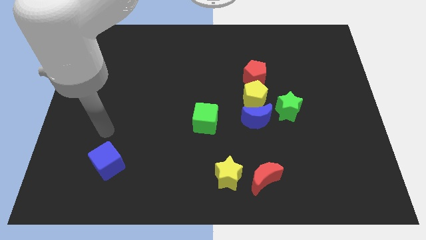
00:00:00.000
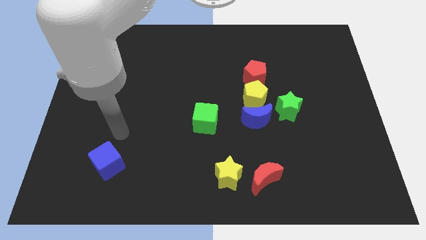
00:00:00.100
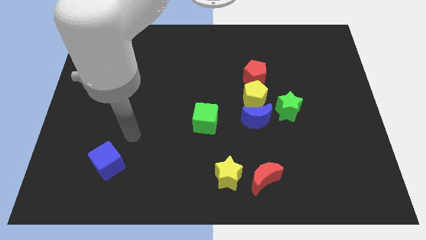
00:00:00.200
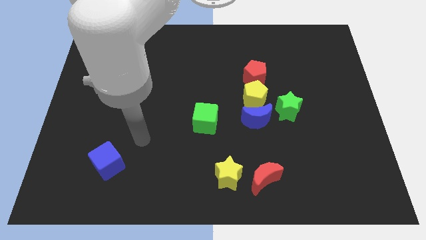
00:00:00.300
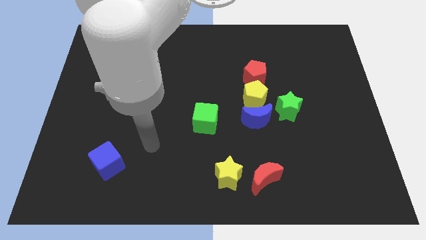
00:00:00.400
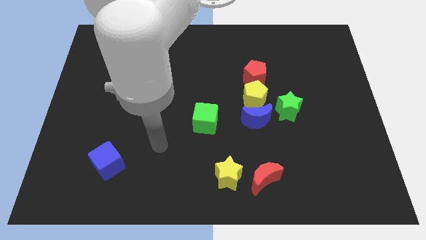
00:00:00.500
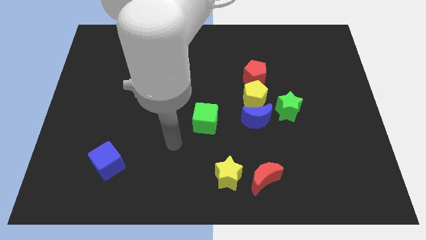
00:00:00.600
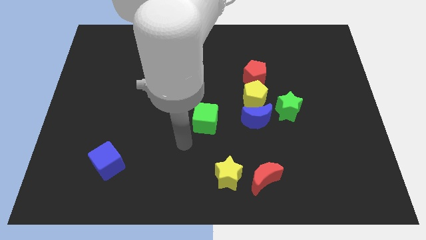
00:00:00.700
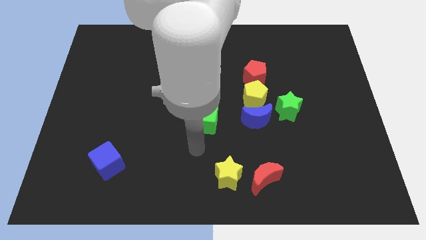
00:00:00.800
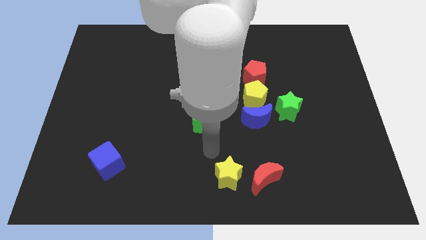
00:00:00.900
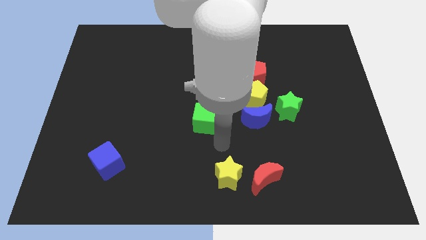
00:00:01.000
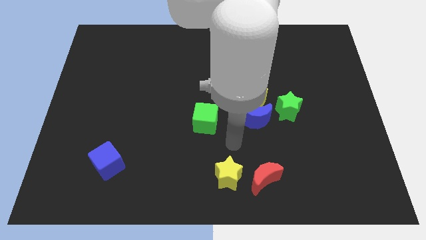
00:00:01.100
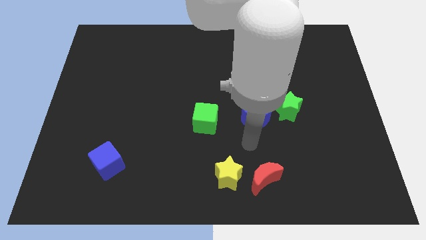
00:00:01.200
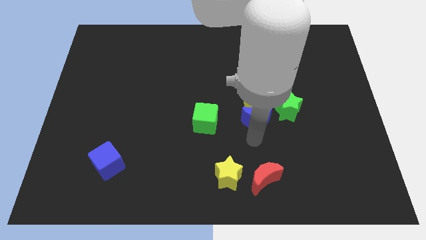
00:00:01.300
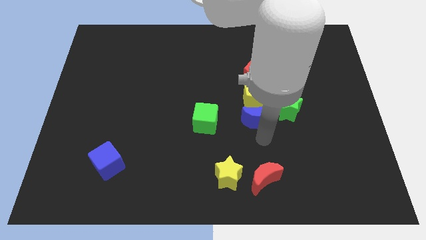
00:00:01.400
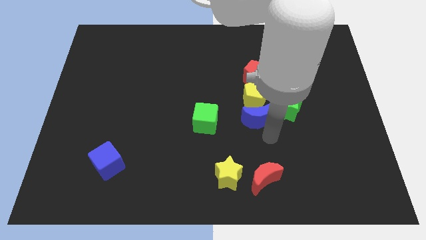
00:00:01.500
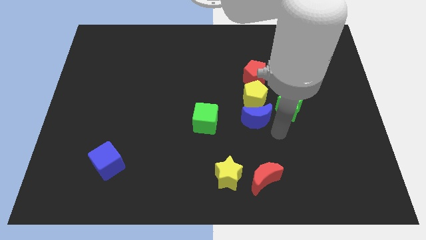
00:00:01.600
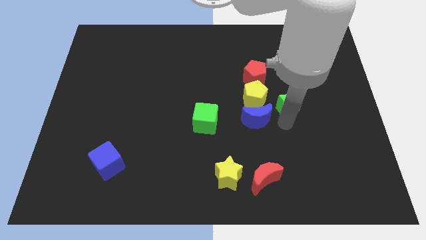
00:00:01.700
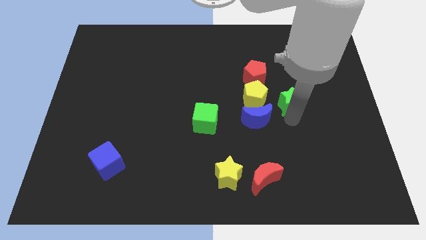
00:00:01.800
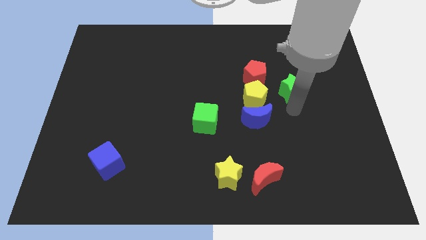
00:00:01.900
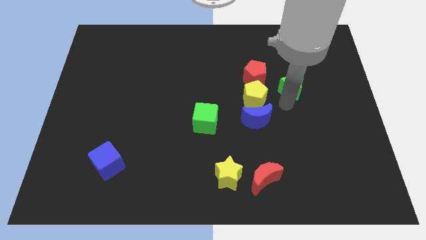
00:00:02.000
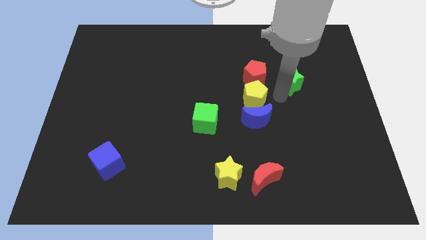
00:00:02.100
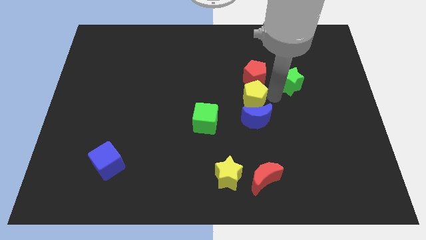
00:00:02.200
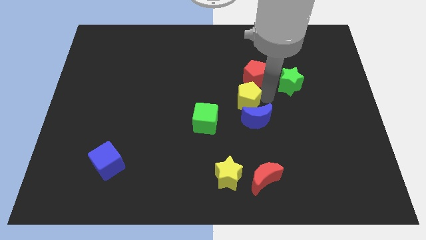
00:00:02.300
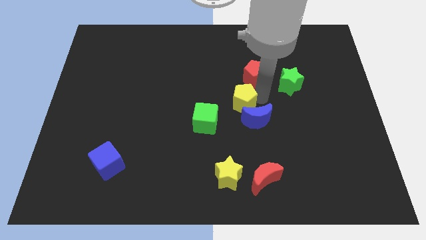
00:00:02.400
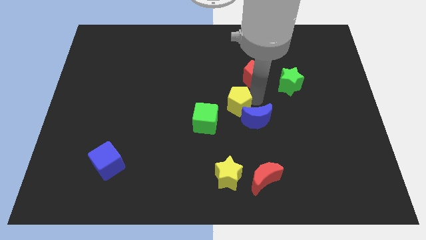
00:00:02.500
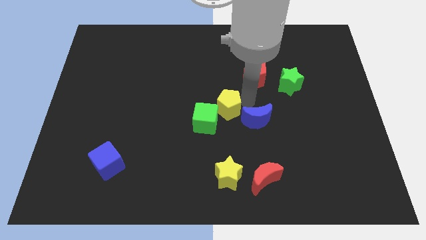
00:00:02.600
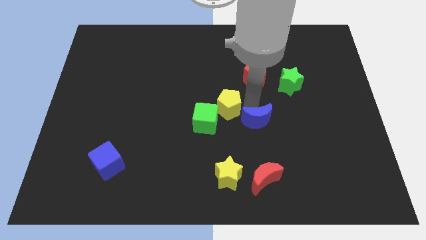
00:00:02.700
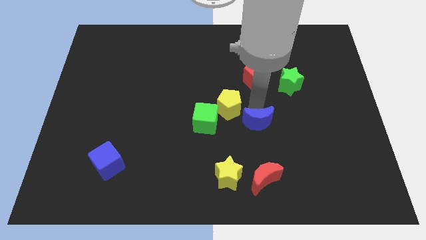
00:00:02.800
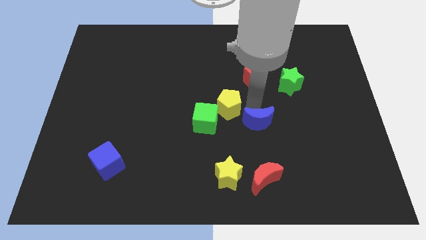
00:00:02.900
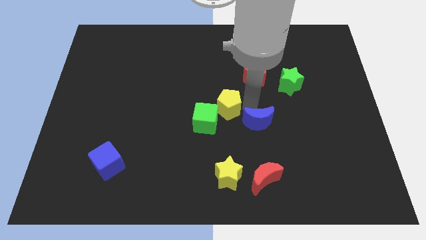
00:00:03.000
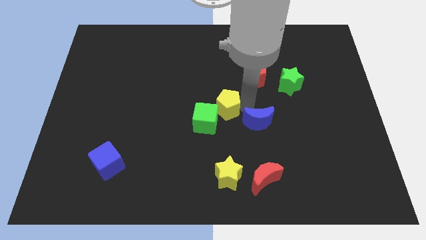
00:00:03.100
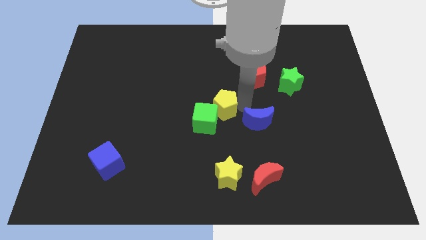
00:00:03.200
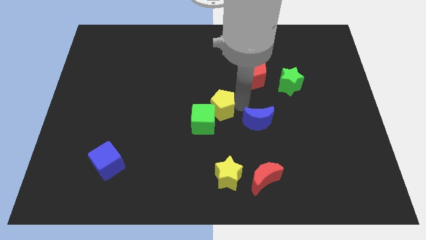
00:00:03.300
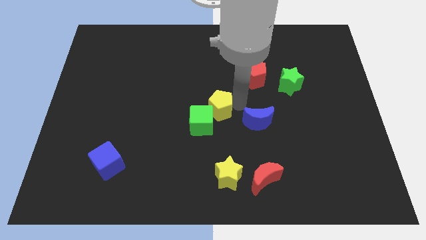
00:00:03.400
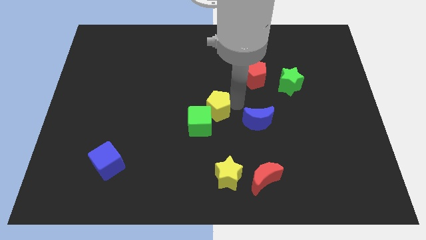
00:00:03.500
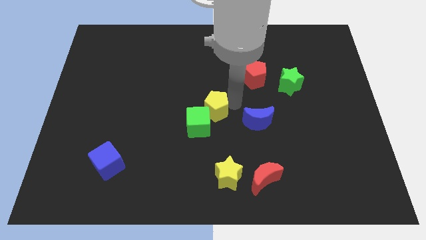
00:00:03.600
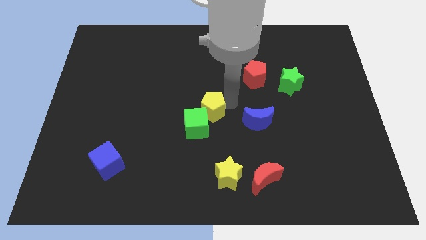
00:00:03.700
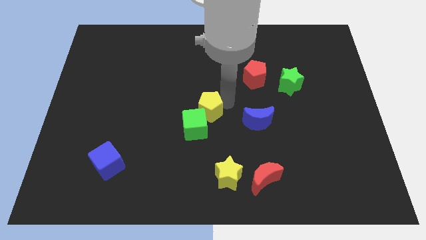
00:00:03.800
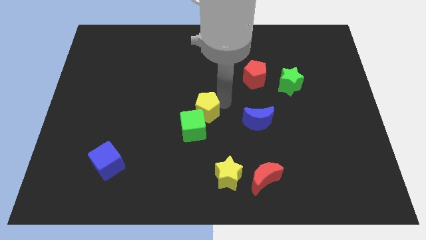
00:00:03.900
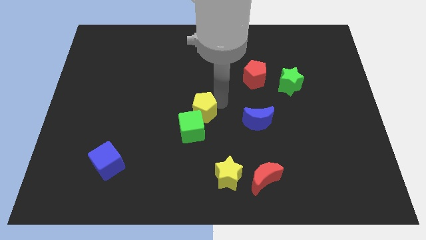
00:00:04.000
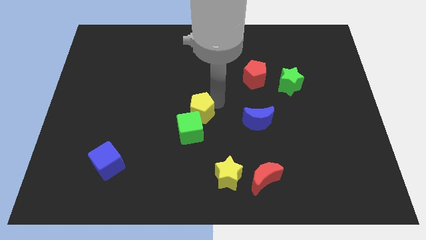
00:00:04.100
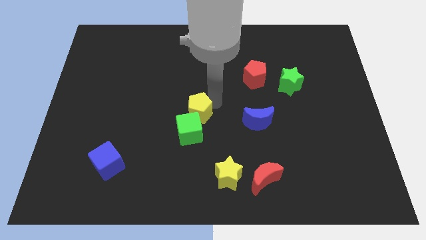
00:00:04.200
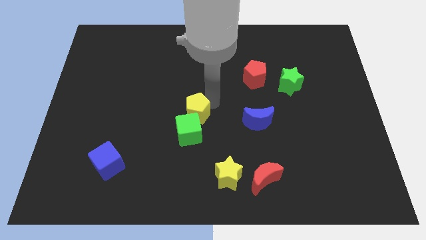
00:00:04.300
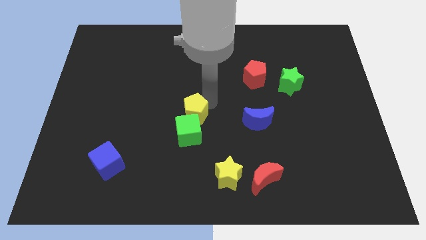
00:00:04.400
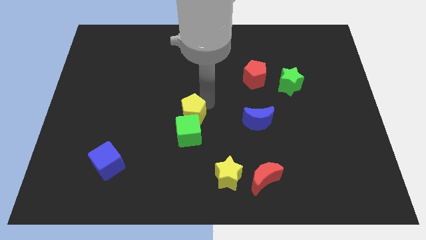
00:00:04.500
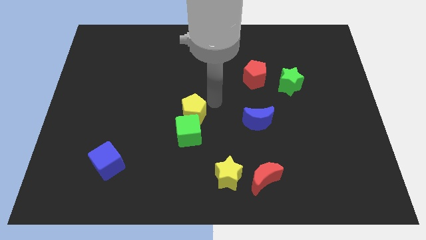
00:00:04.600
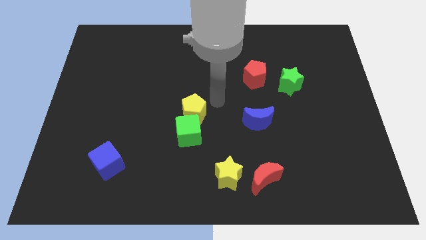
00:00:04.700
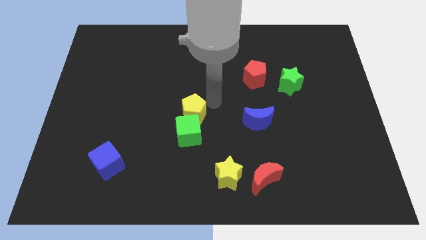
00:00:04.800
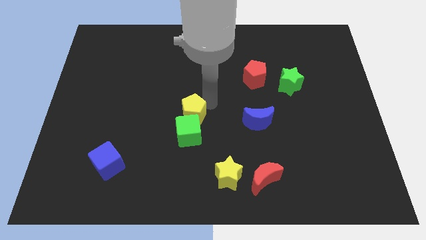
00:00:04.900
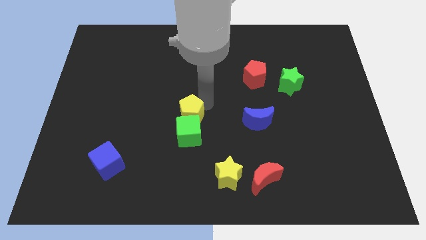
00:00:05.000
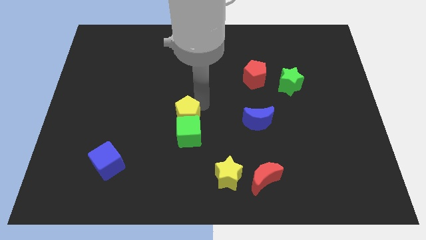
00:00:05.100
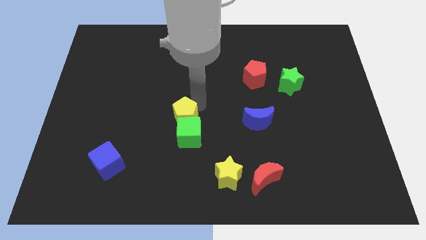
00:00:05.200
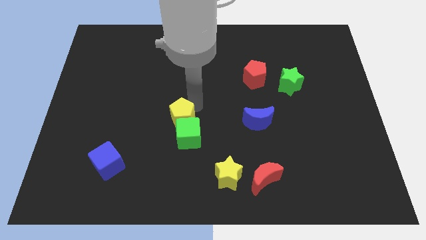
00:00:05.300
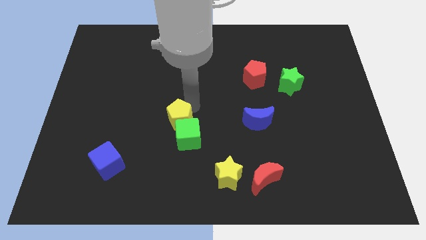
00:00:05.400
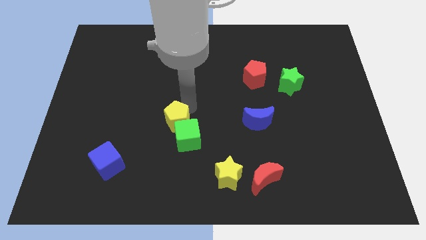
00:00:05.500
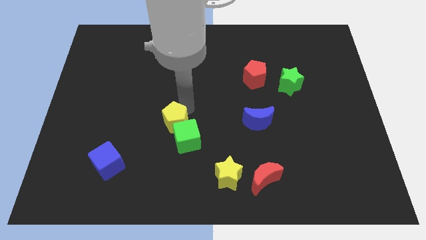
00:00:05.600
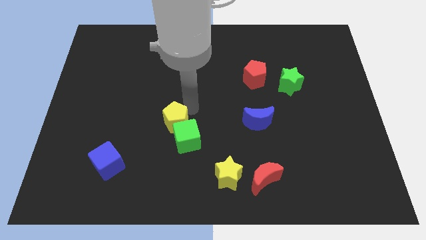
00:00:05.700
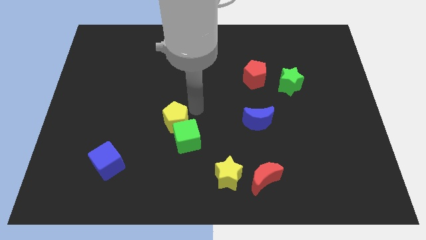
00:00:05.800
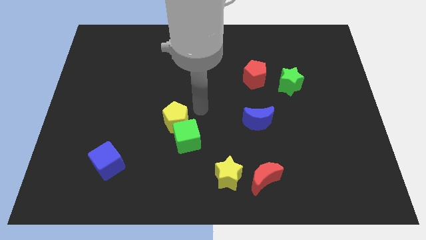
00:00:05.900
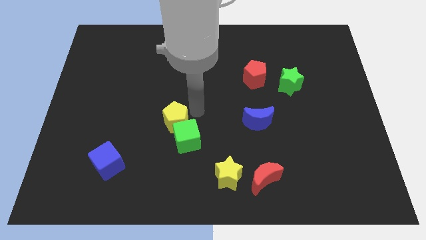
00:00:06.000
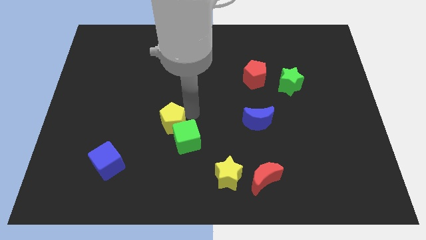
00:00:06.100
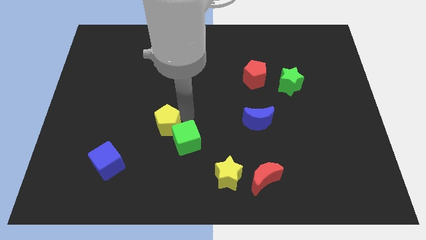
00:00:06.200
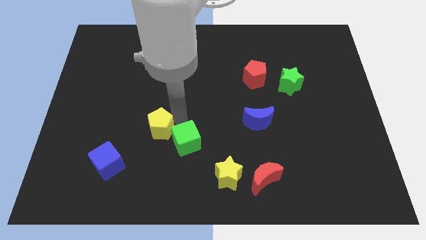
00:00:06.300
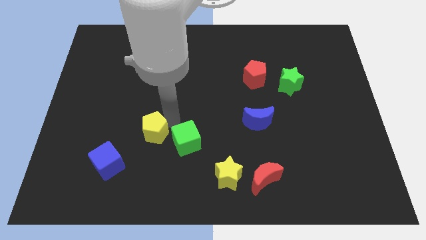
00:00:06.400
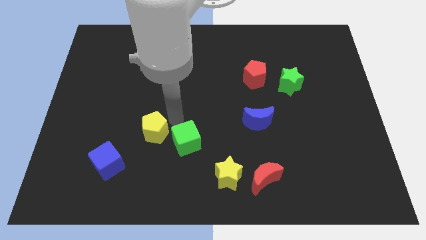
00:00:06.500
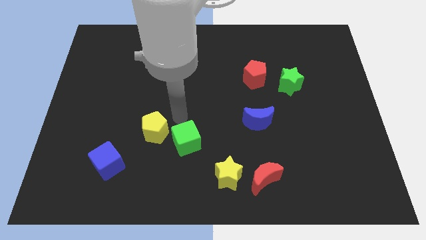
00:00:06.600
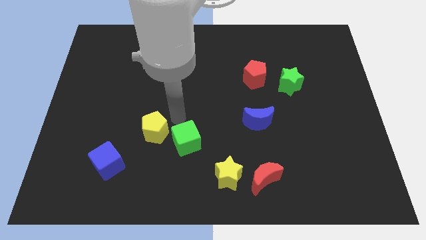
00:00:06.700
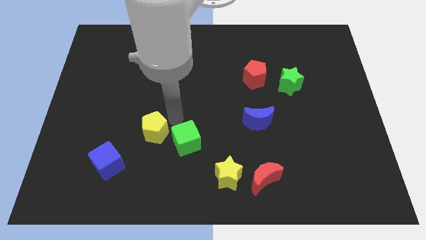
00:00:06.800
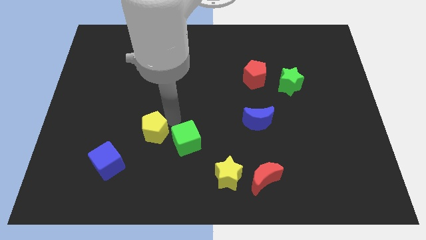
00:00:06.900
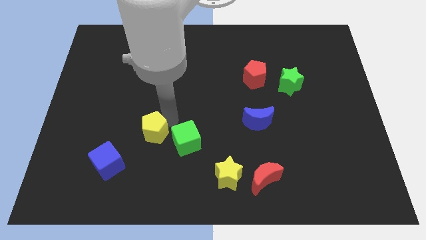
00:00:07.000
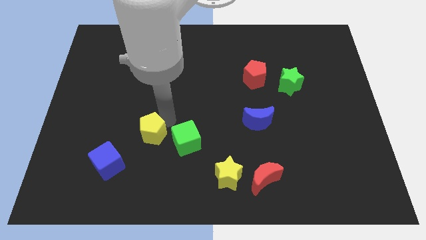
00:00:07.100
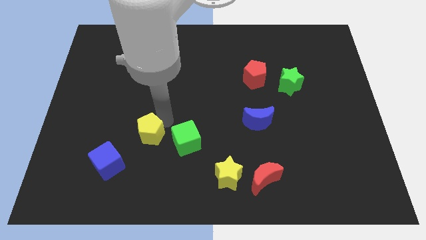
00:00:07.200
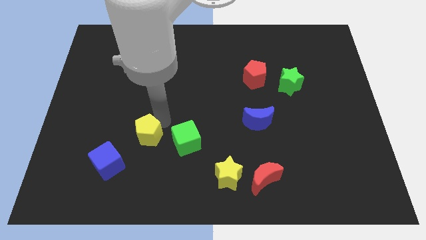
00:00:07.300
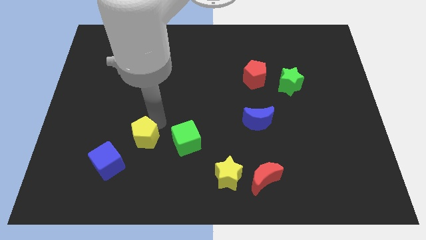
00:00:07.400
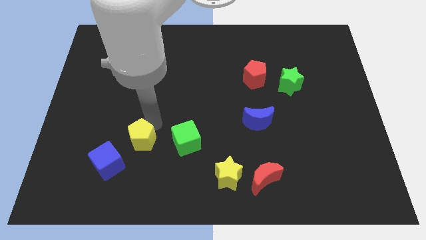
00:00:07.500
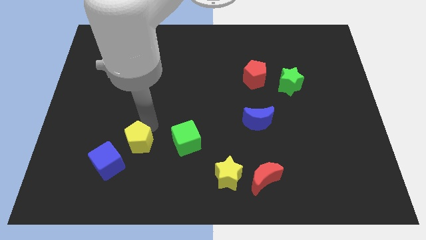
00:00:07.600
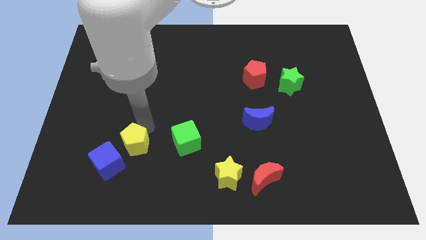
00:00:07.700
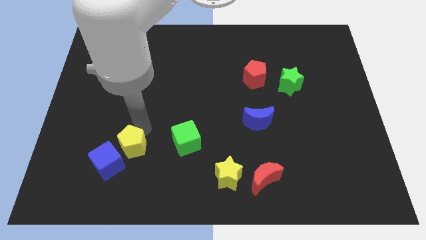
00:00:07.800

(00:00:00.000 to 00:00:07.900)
slide the yellow pentagon close to the blue cube
